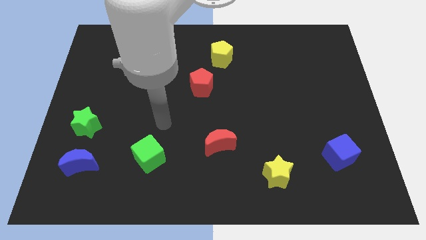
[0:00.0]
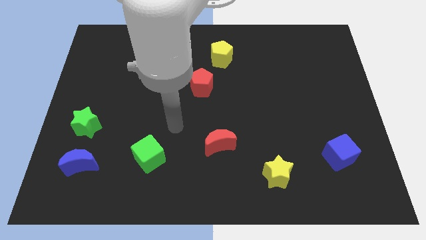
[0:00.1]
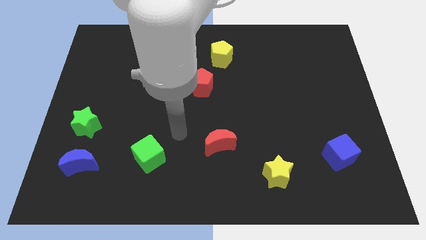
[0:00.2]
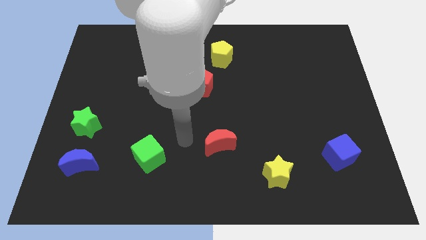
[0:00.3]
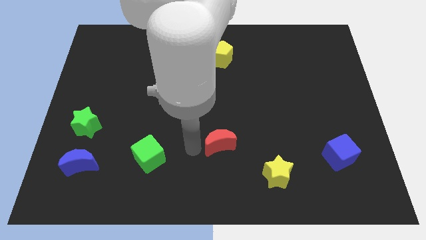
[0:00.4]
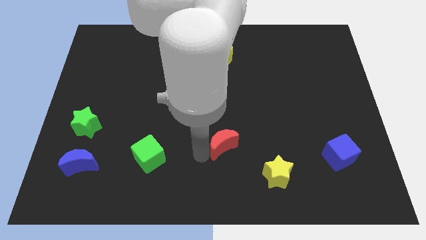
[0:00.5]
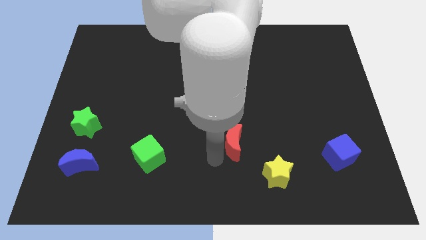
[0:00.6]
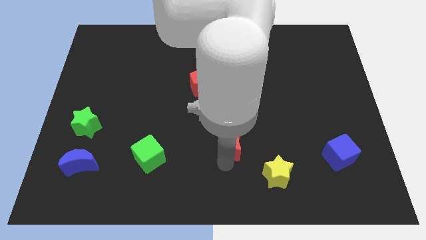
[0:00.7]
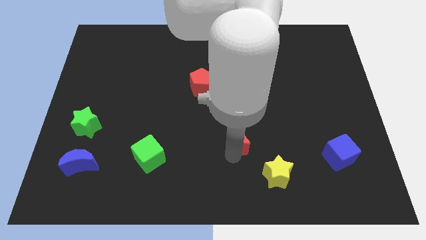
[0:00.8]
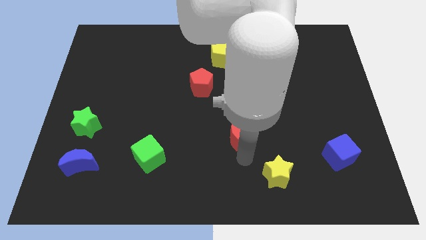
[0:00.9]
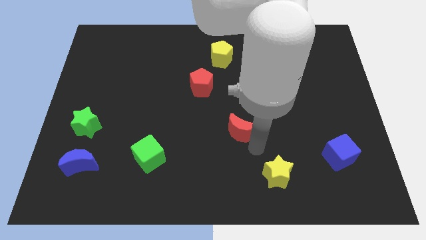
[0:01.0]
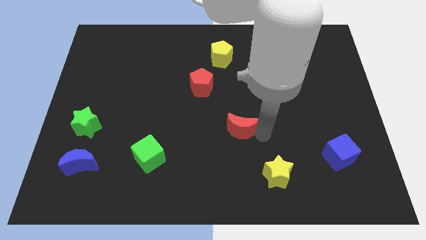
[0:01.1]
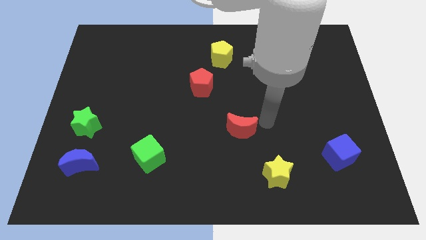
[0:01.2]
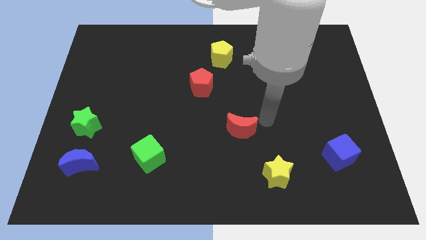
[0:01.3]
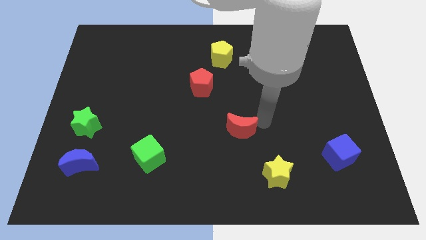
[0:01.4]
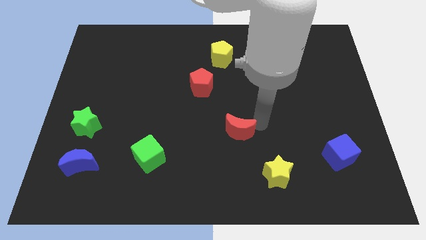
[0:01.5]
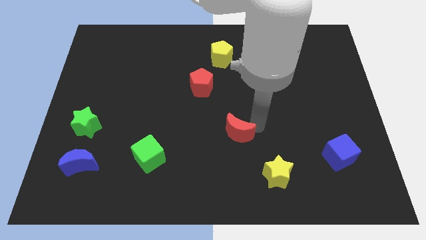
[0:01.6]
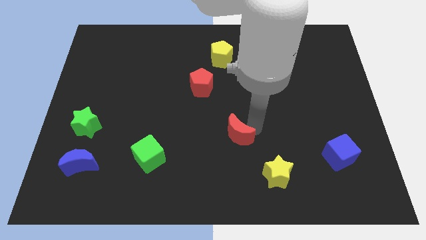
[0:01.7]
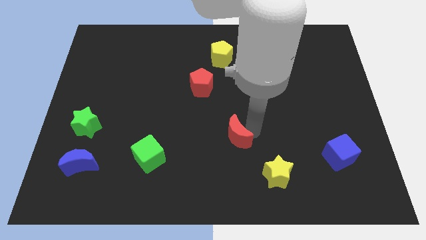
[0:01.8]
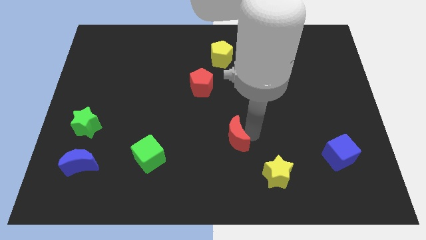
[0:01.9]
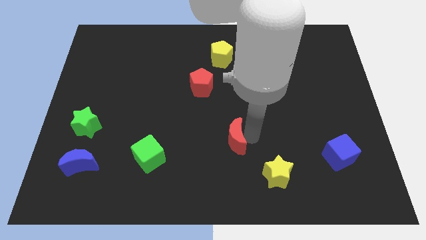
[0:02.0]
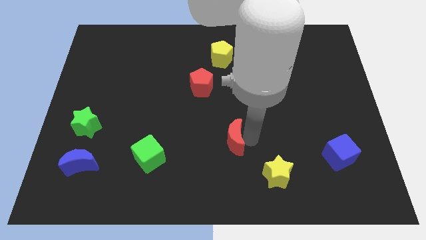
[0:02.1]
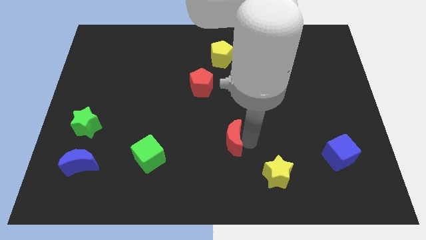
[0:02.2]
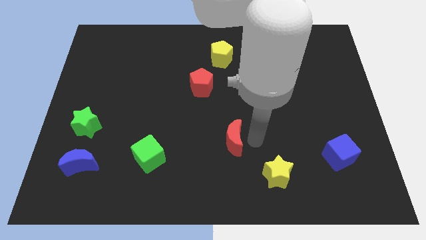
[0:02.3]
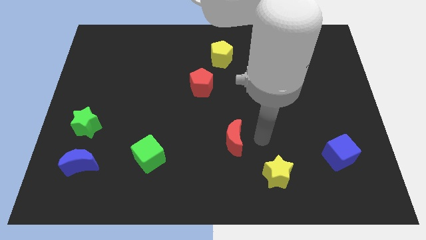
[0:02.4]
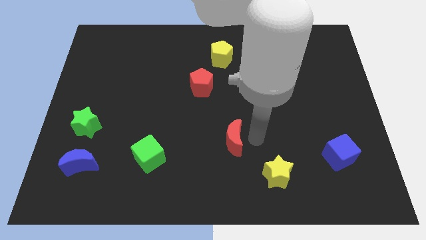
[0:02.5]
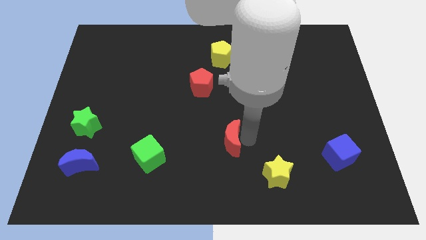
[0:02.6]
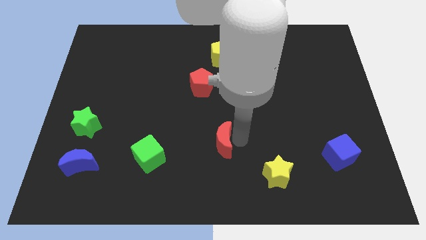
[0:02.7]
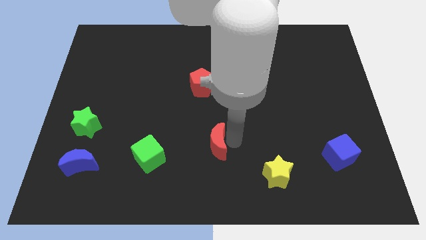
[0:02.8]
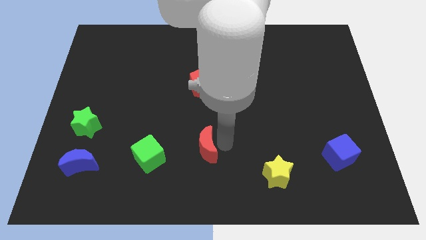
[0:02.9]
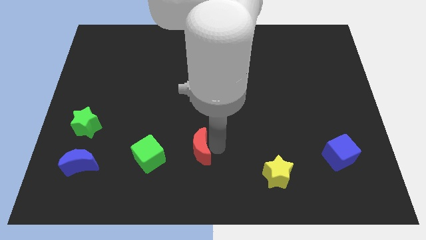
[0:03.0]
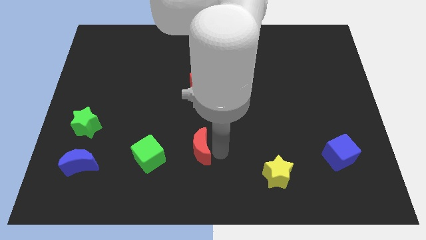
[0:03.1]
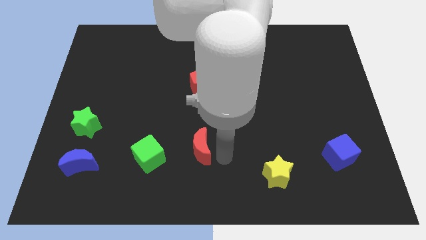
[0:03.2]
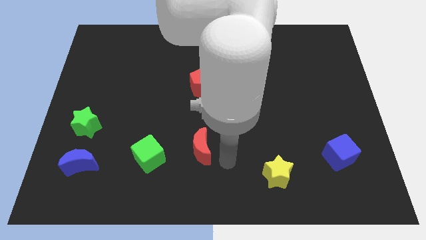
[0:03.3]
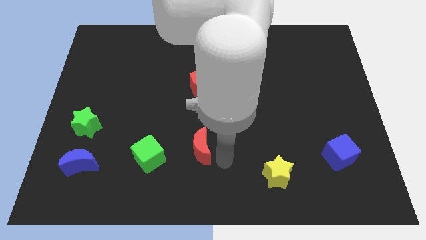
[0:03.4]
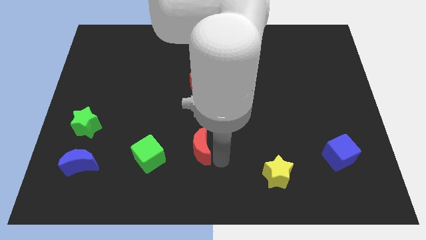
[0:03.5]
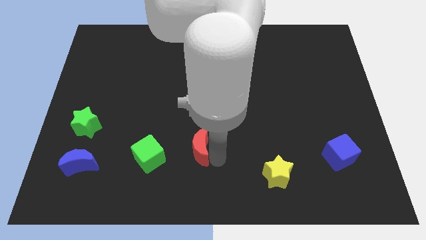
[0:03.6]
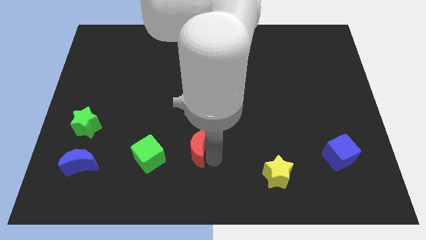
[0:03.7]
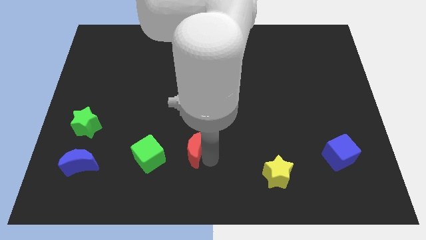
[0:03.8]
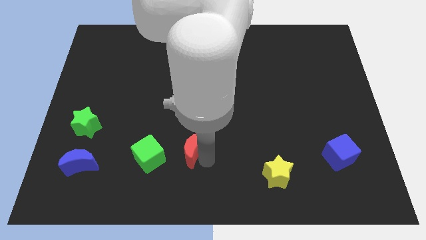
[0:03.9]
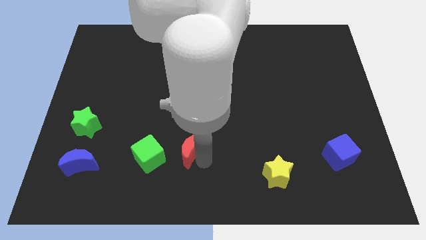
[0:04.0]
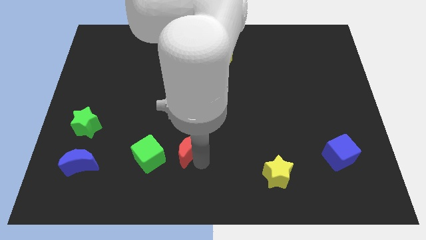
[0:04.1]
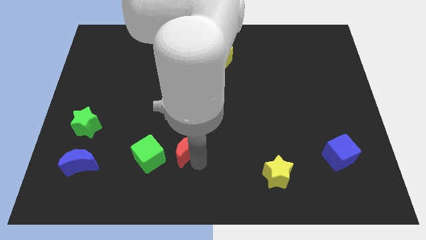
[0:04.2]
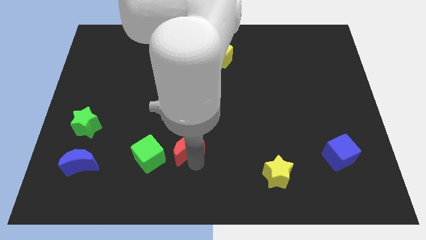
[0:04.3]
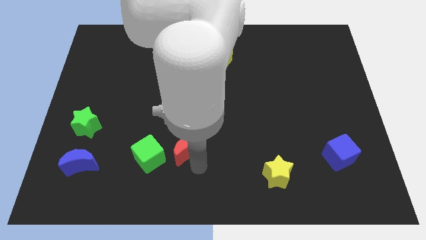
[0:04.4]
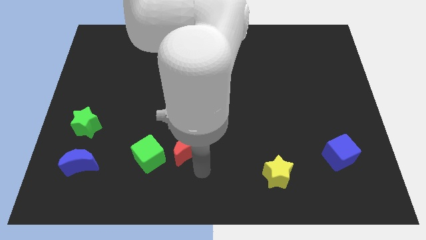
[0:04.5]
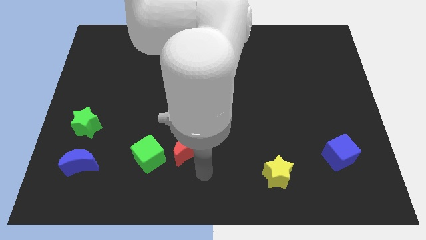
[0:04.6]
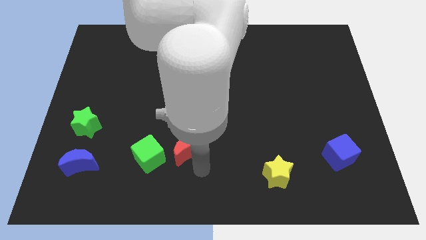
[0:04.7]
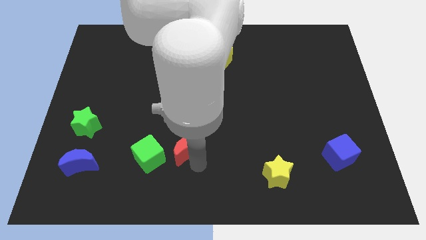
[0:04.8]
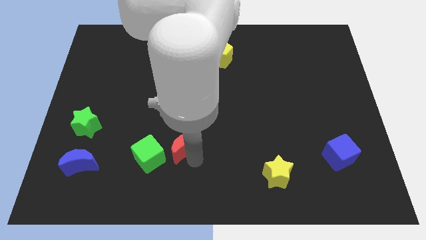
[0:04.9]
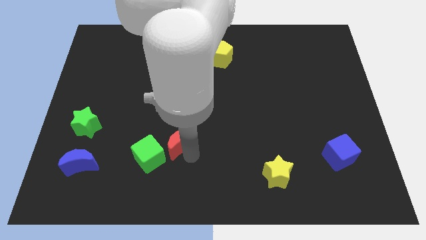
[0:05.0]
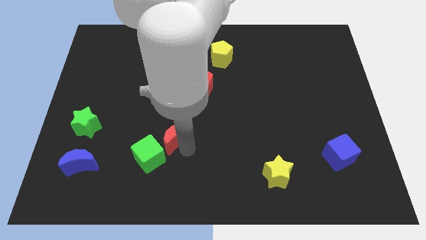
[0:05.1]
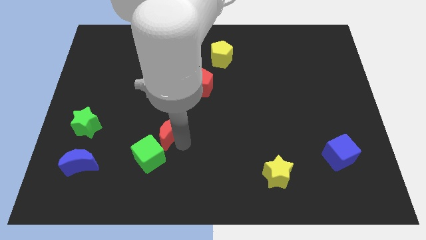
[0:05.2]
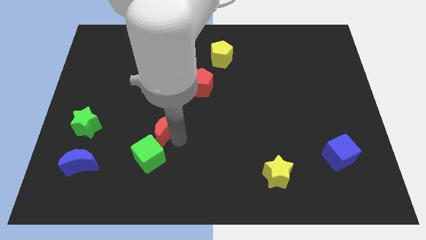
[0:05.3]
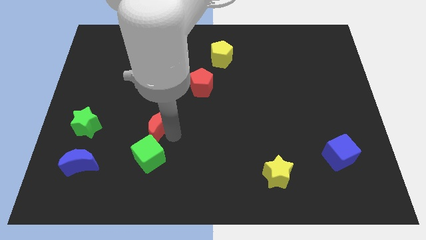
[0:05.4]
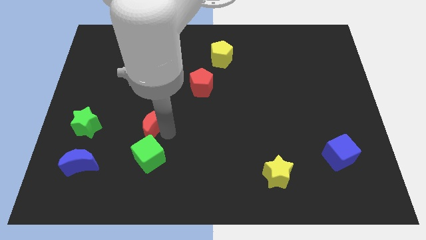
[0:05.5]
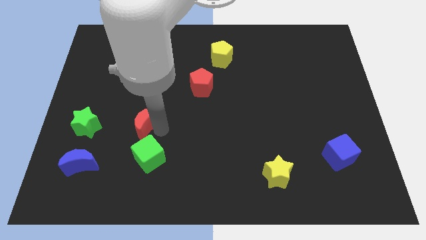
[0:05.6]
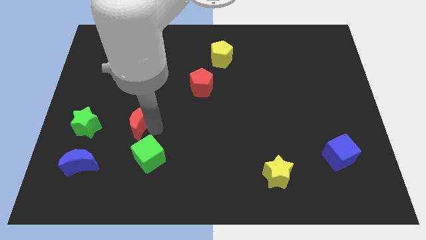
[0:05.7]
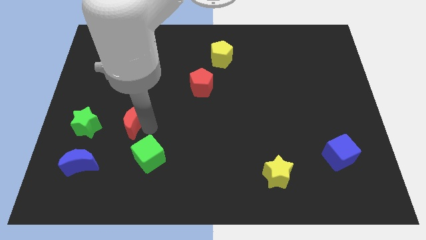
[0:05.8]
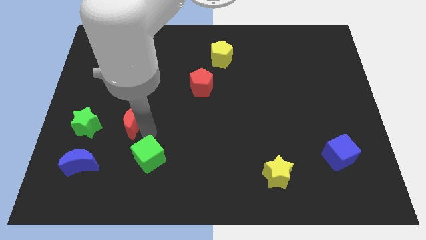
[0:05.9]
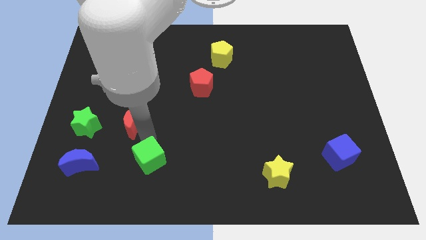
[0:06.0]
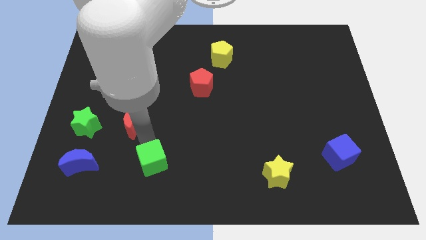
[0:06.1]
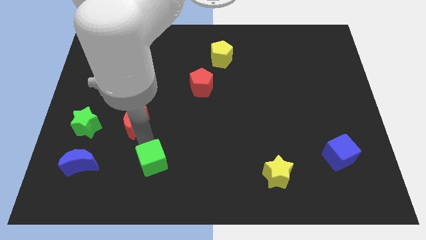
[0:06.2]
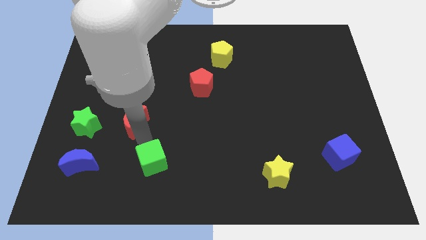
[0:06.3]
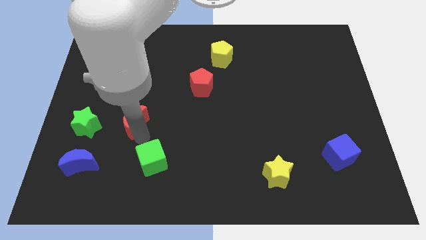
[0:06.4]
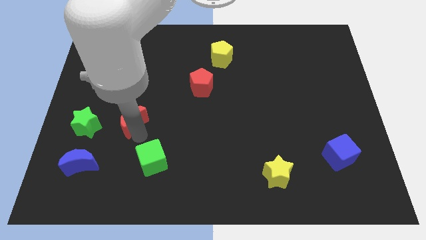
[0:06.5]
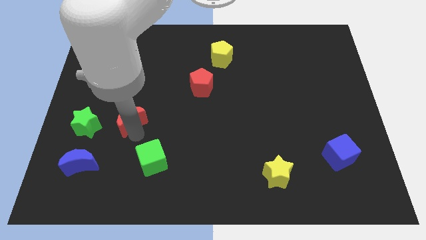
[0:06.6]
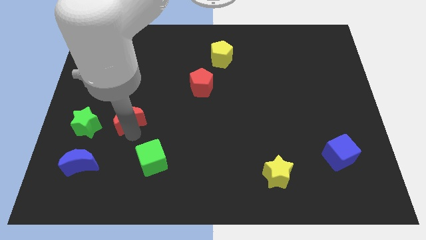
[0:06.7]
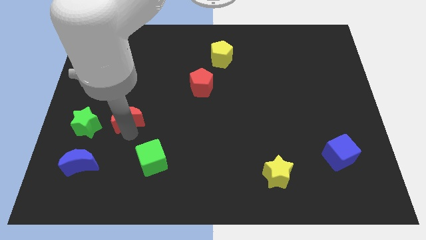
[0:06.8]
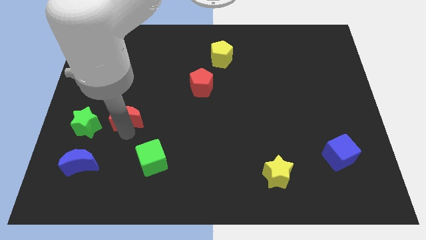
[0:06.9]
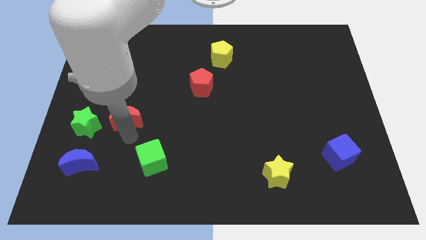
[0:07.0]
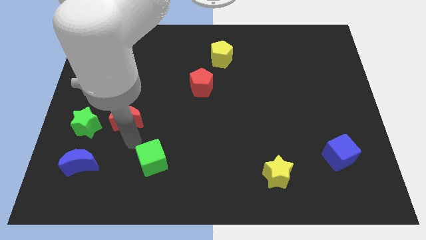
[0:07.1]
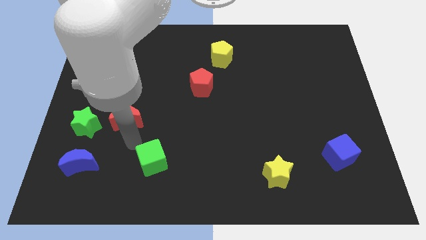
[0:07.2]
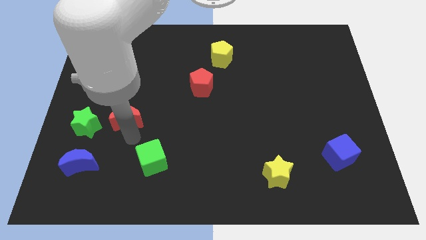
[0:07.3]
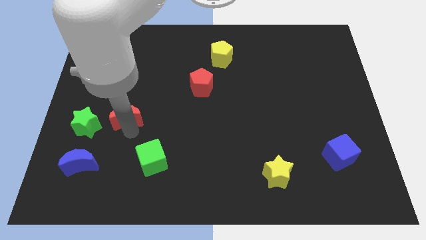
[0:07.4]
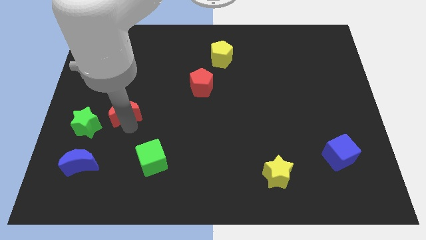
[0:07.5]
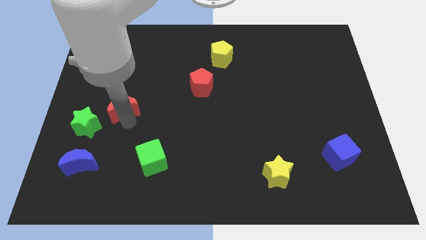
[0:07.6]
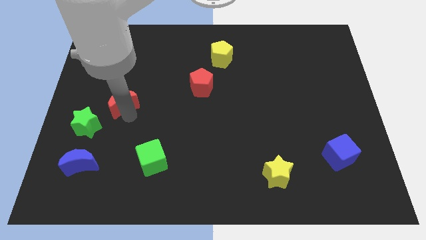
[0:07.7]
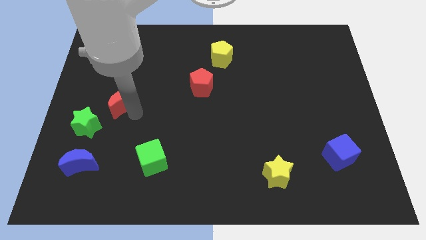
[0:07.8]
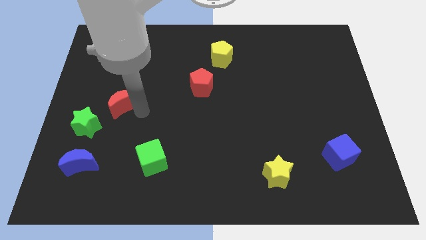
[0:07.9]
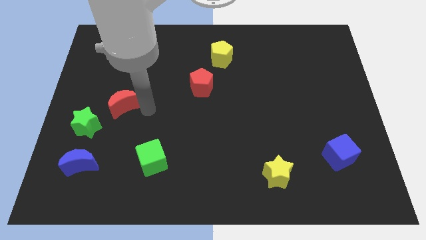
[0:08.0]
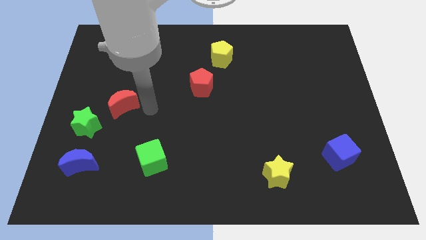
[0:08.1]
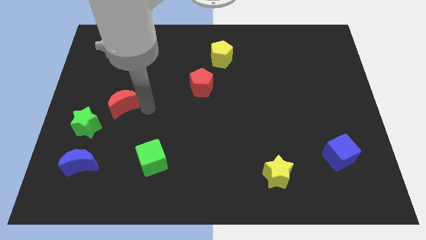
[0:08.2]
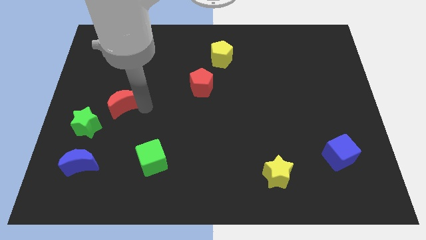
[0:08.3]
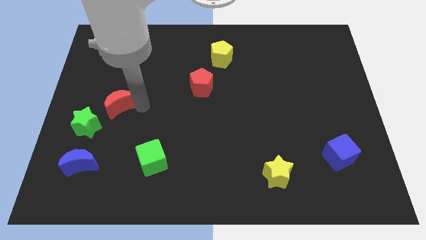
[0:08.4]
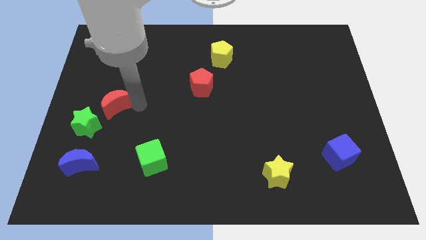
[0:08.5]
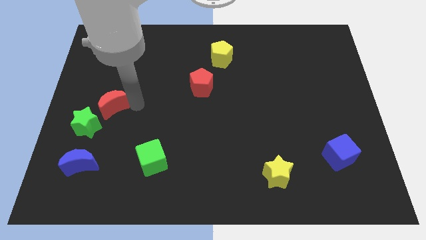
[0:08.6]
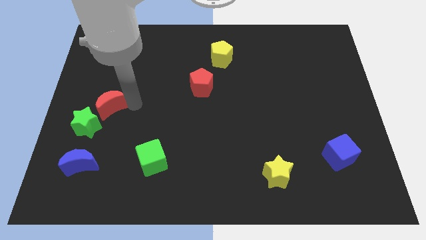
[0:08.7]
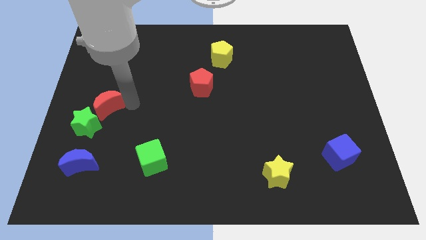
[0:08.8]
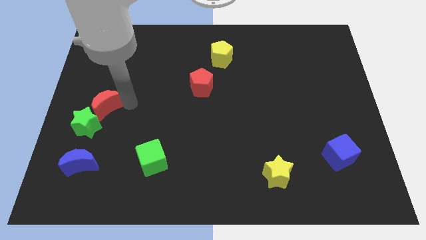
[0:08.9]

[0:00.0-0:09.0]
push the red moon to the center left
